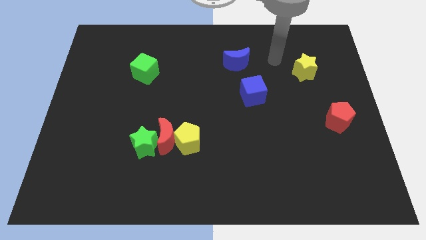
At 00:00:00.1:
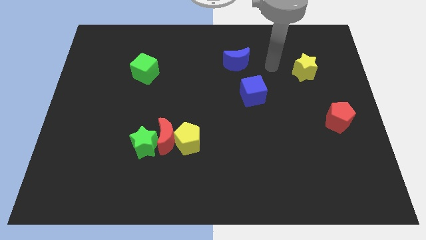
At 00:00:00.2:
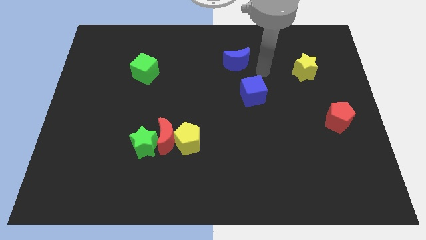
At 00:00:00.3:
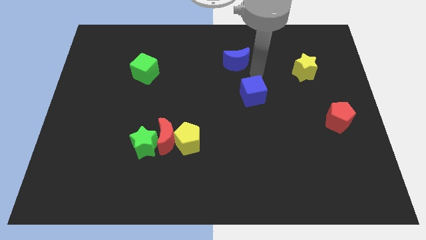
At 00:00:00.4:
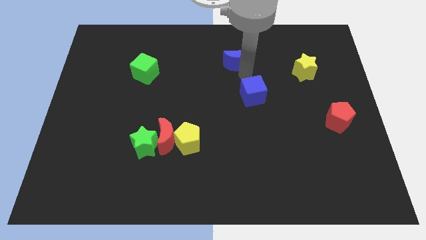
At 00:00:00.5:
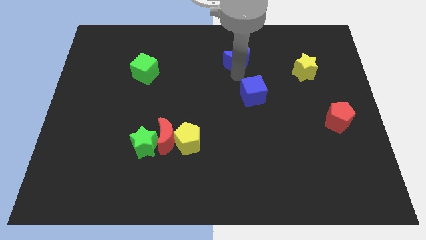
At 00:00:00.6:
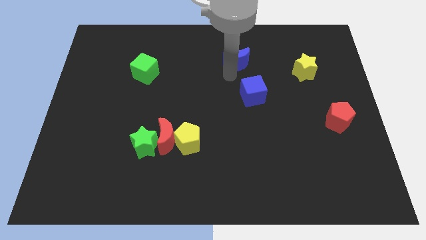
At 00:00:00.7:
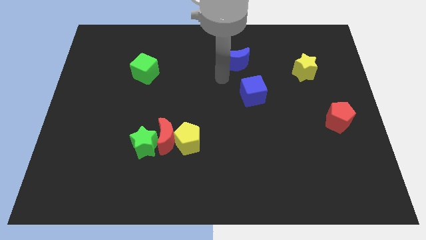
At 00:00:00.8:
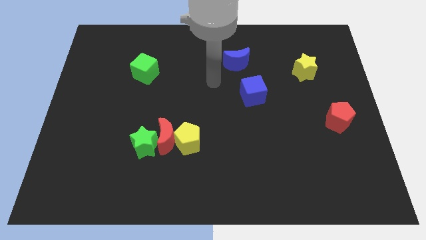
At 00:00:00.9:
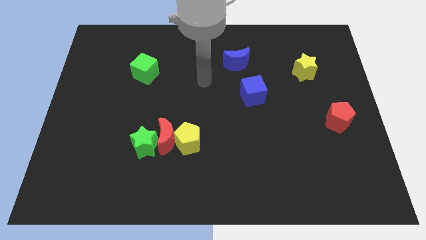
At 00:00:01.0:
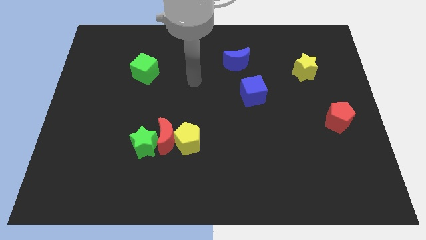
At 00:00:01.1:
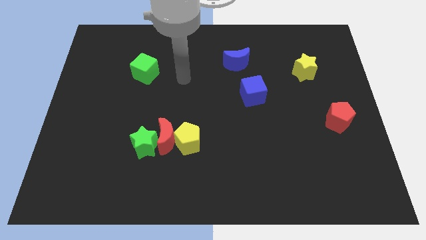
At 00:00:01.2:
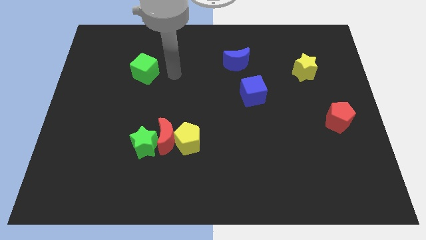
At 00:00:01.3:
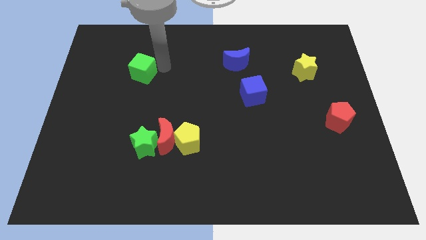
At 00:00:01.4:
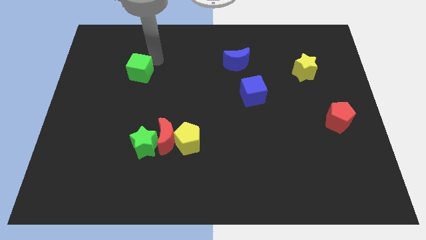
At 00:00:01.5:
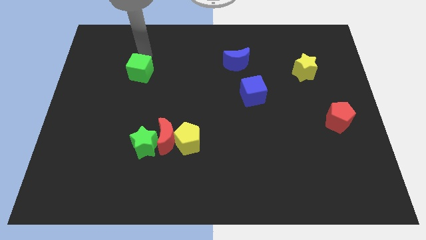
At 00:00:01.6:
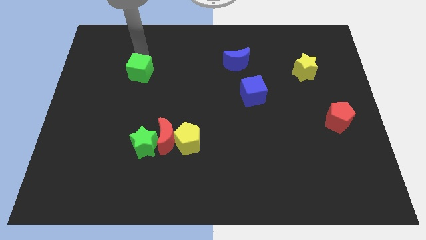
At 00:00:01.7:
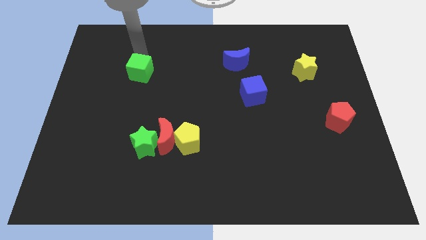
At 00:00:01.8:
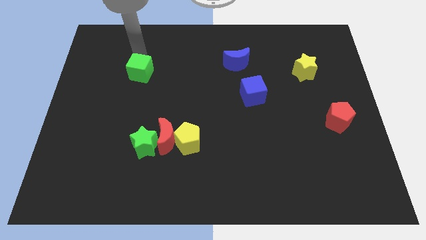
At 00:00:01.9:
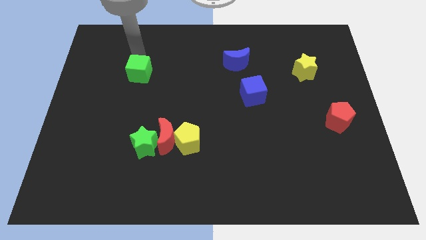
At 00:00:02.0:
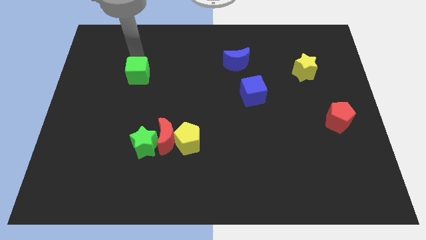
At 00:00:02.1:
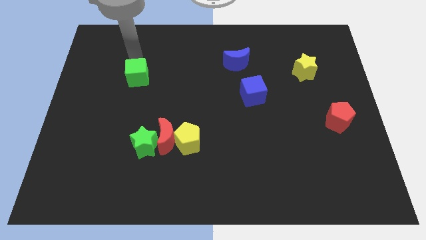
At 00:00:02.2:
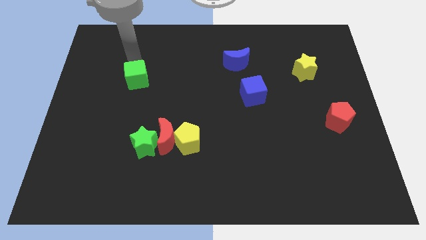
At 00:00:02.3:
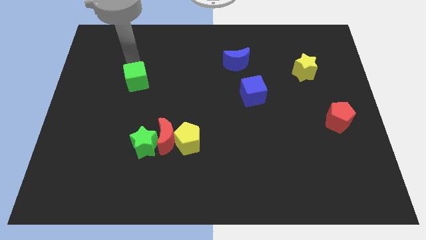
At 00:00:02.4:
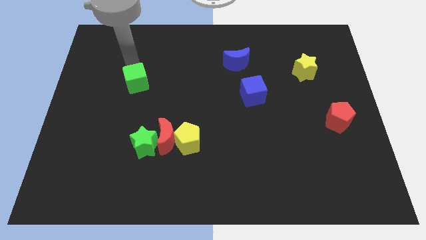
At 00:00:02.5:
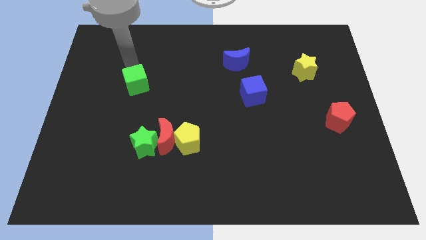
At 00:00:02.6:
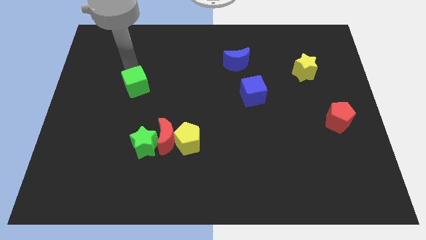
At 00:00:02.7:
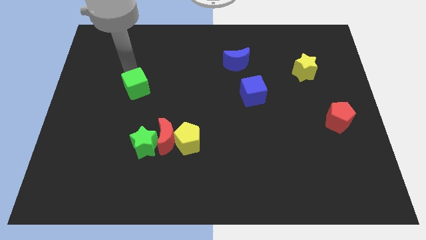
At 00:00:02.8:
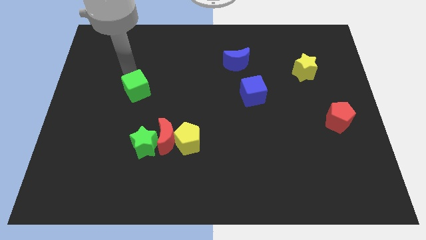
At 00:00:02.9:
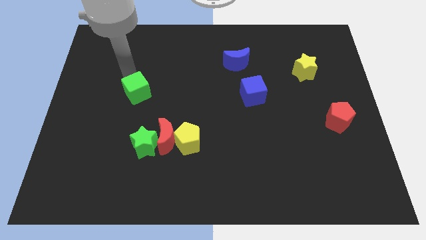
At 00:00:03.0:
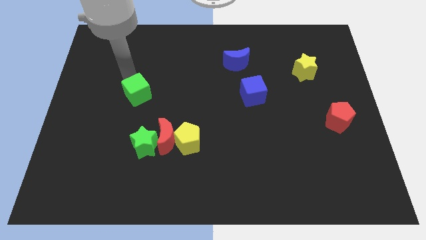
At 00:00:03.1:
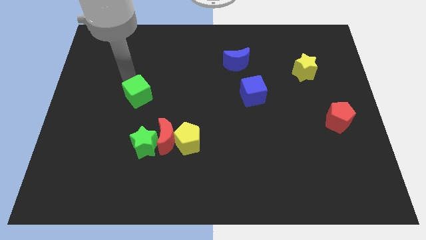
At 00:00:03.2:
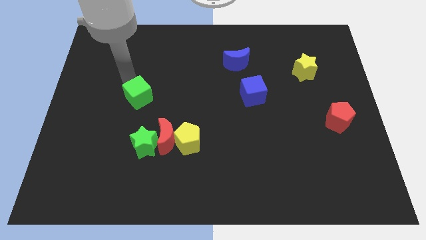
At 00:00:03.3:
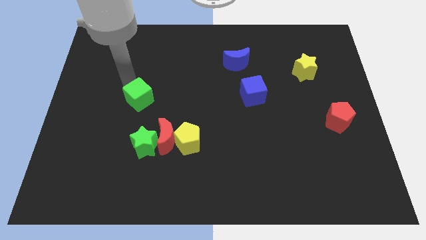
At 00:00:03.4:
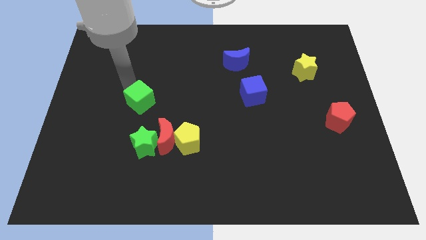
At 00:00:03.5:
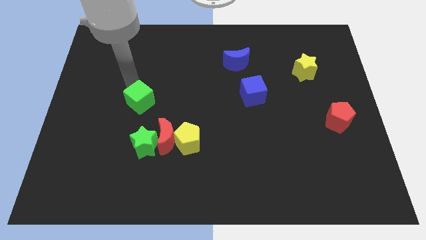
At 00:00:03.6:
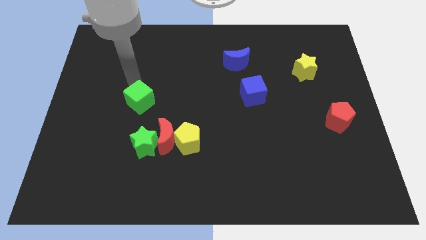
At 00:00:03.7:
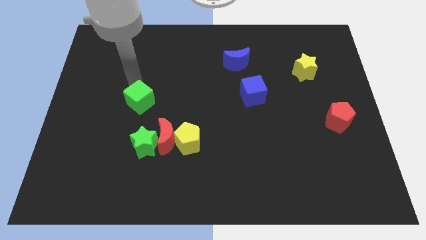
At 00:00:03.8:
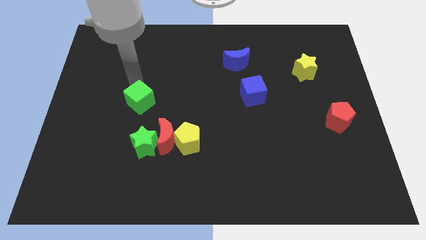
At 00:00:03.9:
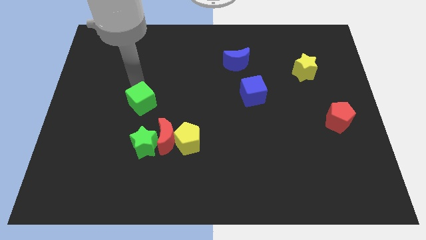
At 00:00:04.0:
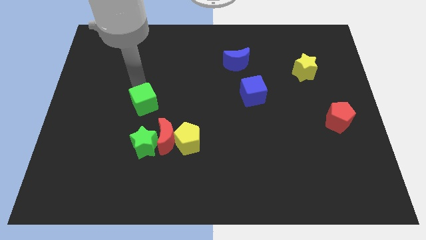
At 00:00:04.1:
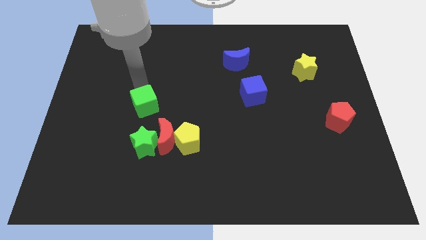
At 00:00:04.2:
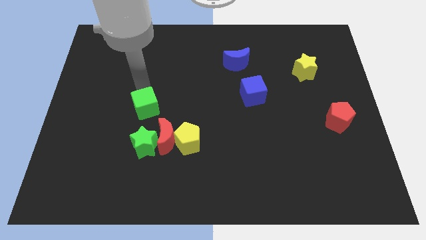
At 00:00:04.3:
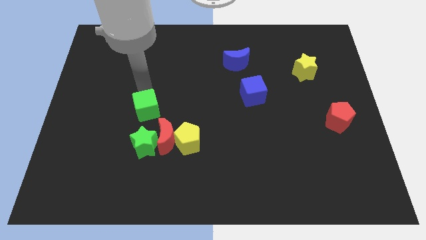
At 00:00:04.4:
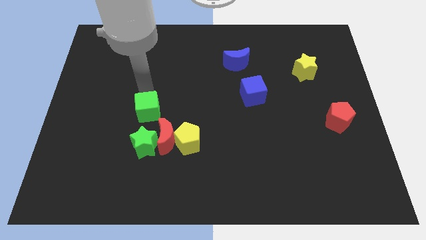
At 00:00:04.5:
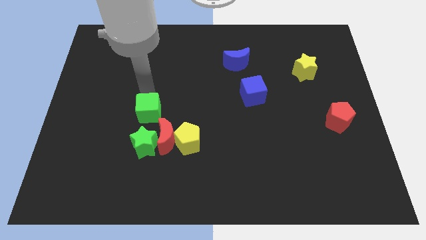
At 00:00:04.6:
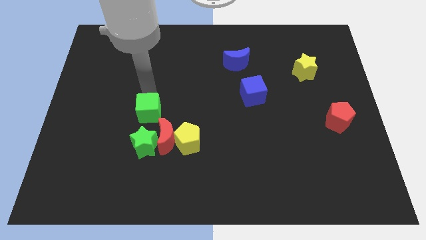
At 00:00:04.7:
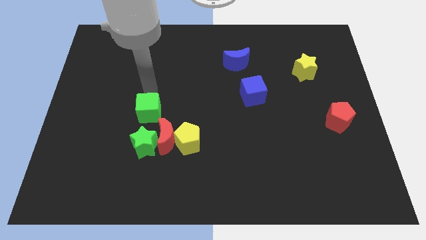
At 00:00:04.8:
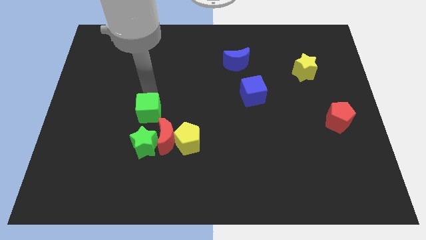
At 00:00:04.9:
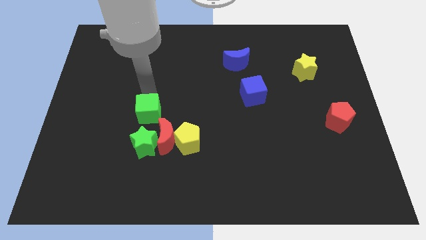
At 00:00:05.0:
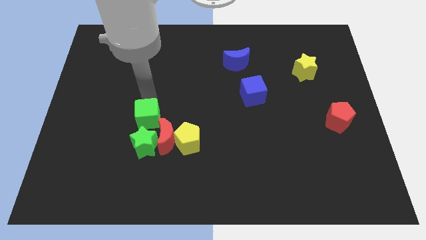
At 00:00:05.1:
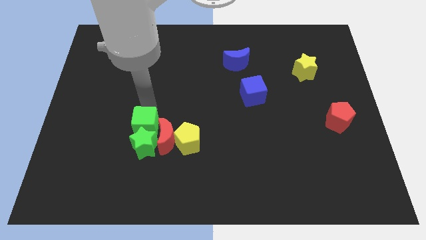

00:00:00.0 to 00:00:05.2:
push the green cube close to the green star

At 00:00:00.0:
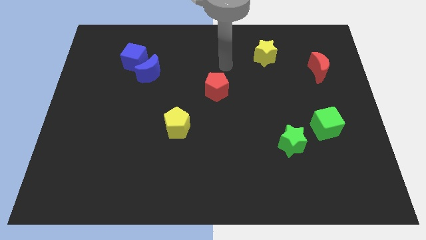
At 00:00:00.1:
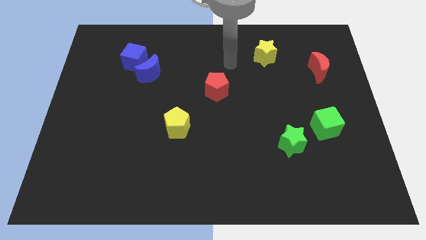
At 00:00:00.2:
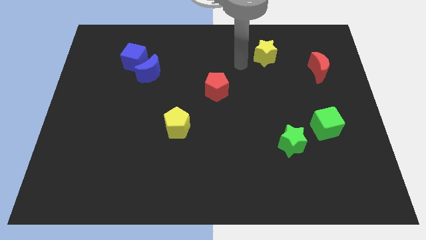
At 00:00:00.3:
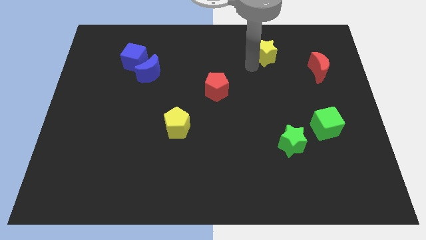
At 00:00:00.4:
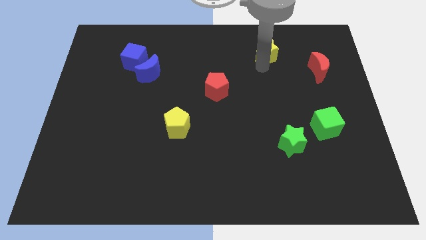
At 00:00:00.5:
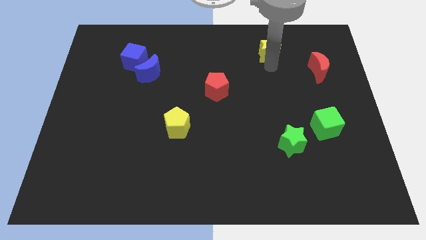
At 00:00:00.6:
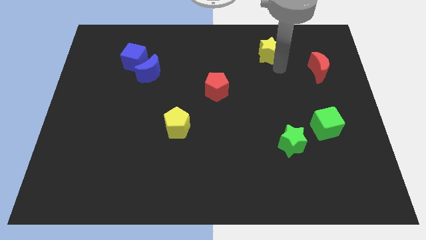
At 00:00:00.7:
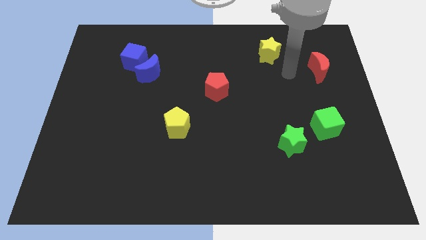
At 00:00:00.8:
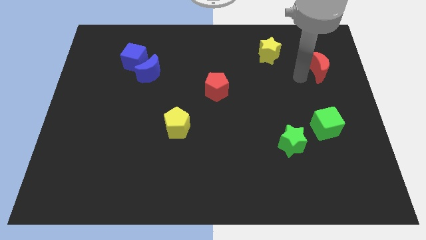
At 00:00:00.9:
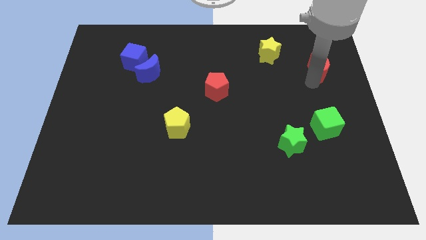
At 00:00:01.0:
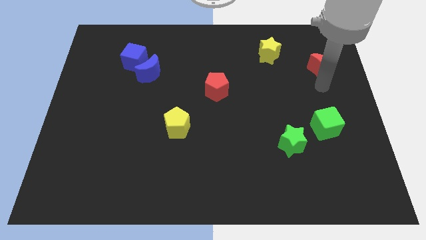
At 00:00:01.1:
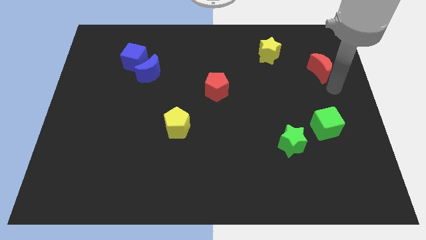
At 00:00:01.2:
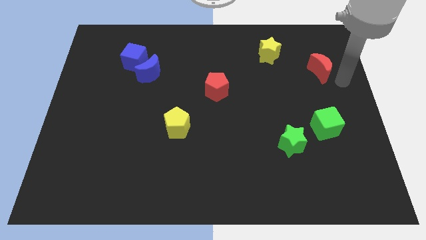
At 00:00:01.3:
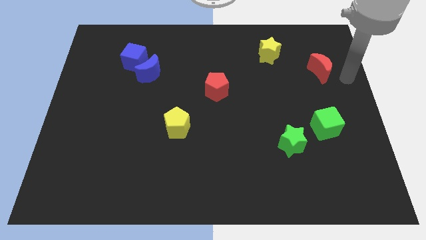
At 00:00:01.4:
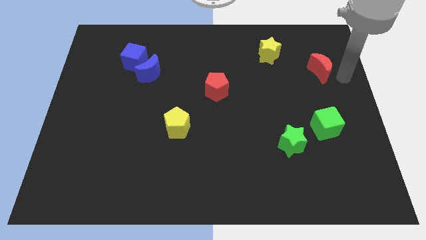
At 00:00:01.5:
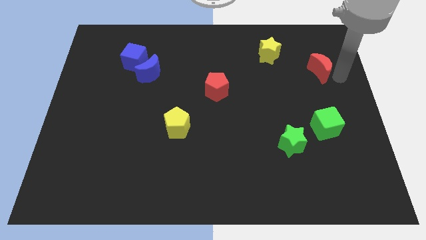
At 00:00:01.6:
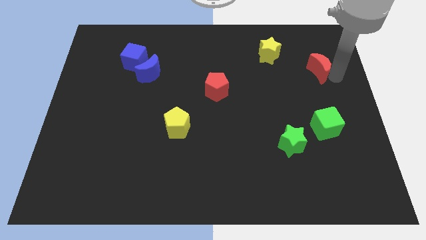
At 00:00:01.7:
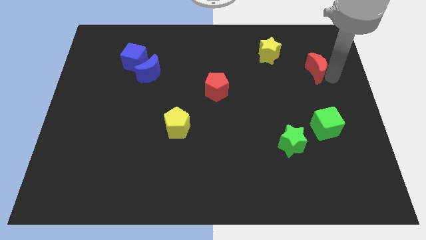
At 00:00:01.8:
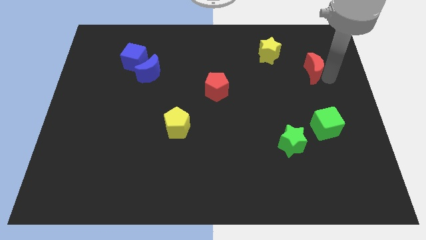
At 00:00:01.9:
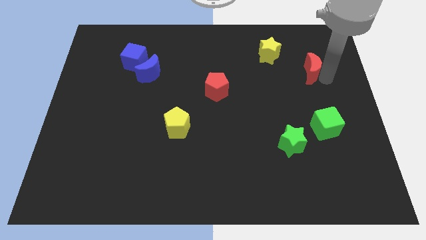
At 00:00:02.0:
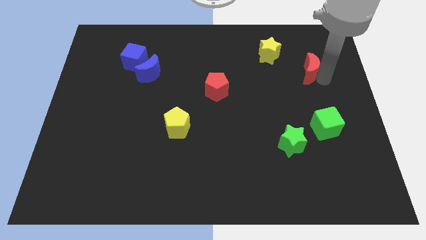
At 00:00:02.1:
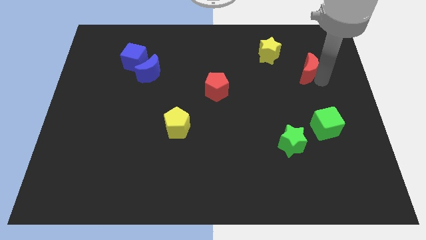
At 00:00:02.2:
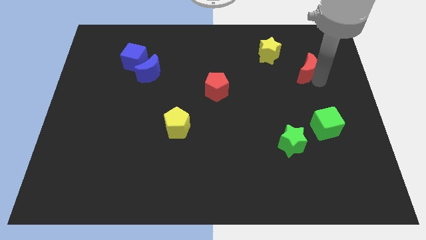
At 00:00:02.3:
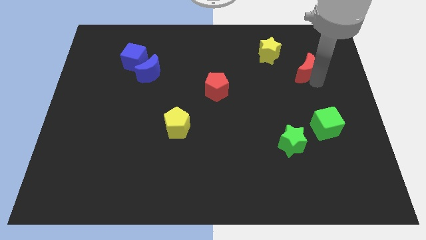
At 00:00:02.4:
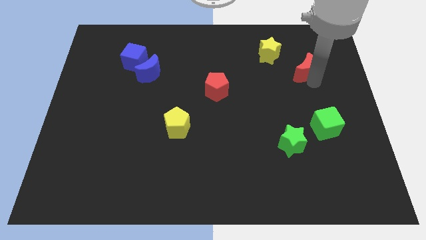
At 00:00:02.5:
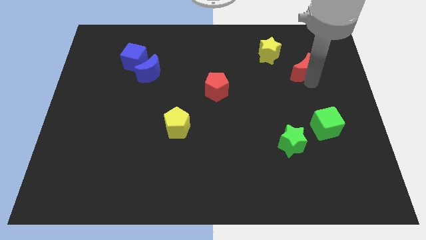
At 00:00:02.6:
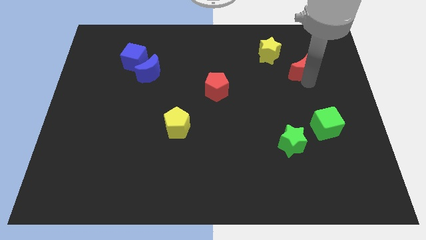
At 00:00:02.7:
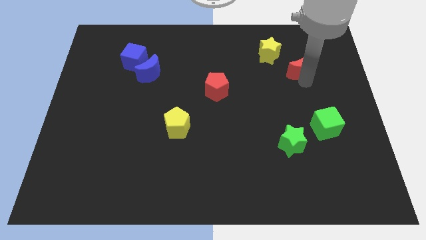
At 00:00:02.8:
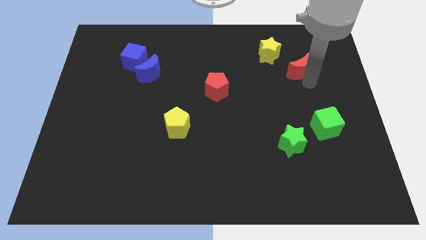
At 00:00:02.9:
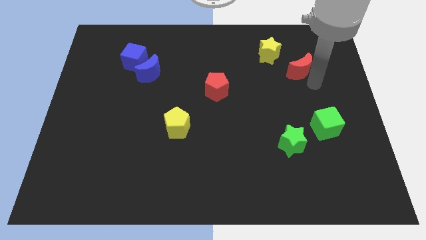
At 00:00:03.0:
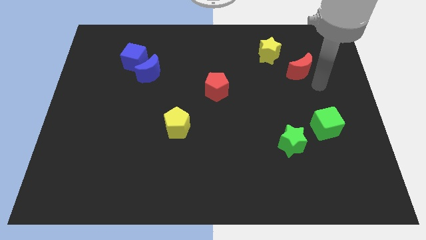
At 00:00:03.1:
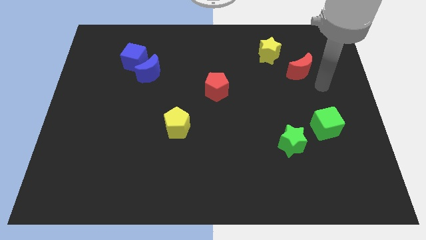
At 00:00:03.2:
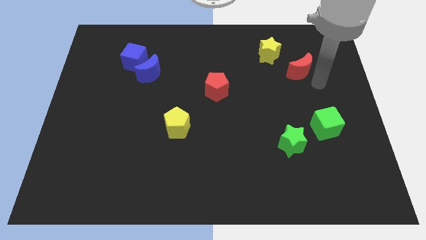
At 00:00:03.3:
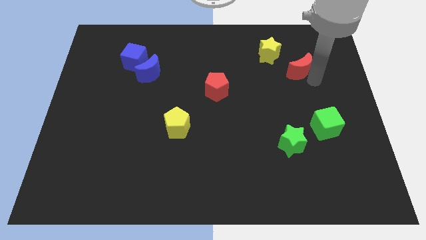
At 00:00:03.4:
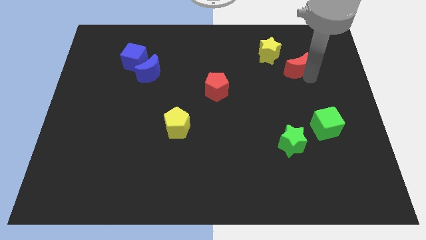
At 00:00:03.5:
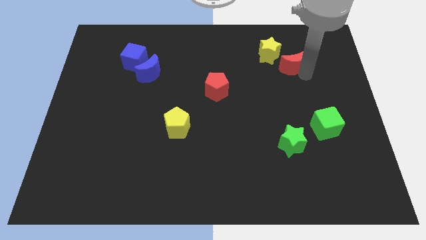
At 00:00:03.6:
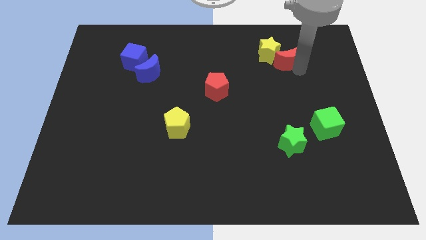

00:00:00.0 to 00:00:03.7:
put the red moon towards the yellow star
